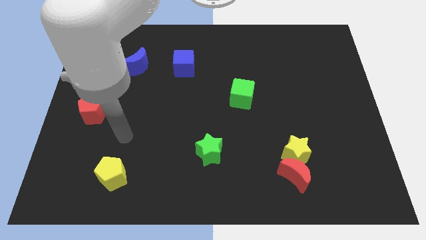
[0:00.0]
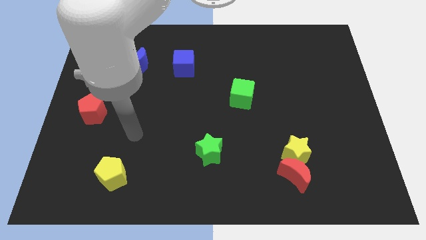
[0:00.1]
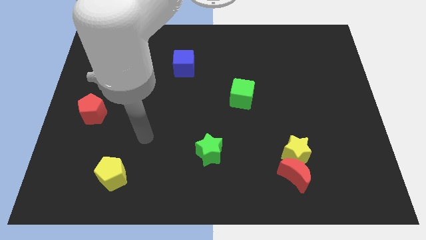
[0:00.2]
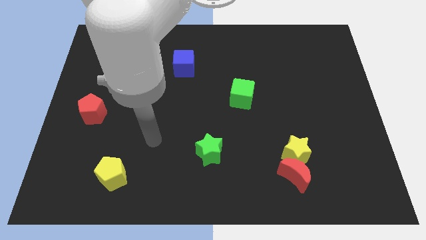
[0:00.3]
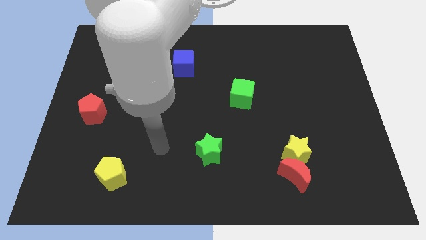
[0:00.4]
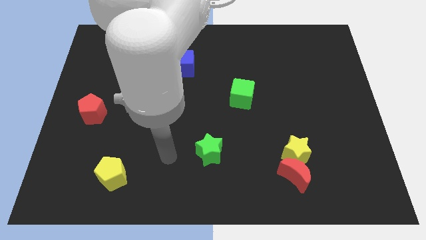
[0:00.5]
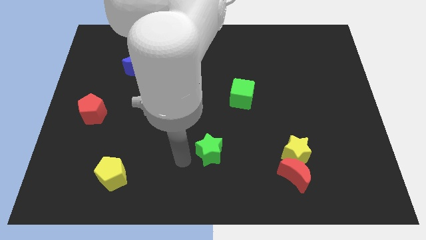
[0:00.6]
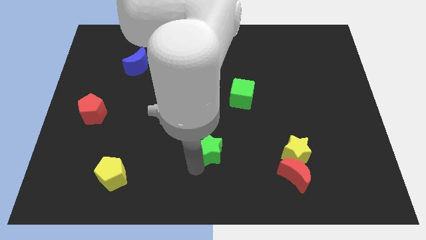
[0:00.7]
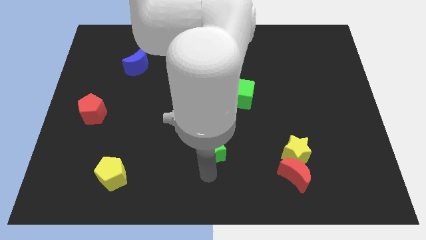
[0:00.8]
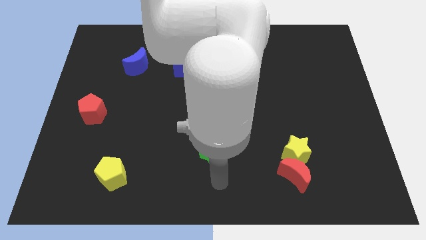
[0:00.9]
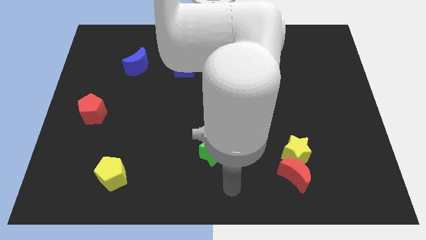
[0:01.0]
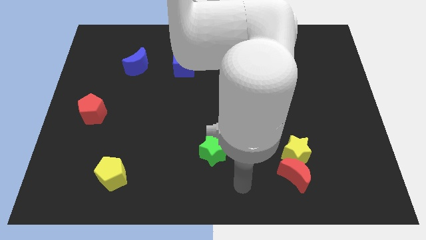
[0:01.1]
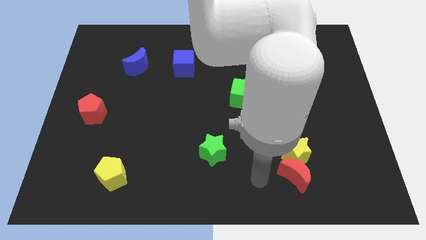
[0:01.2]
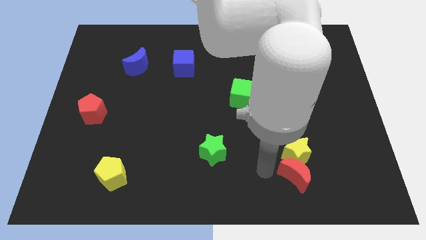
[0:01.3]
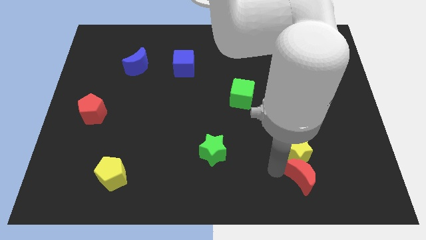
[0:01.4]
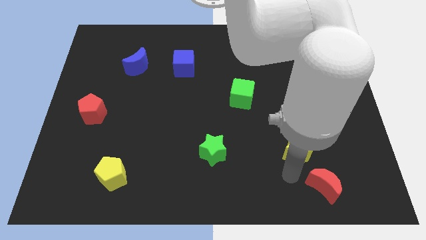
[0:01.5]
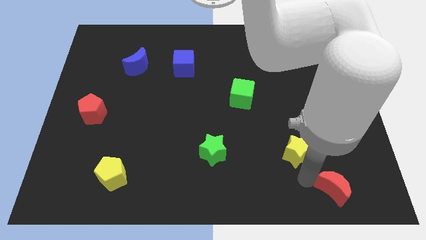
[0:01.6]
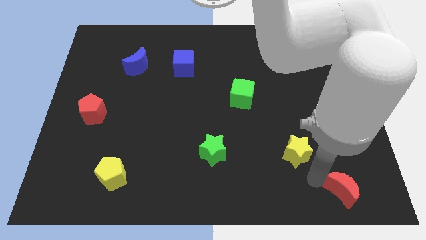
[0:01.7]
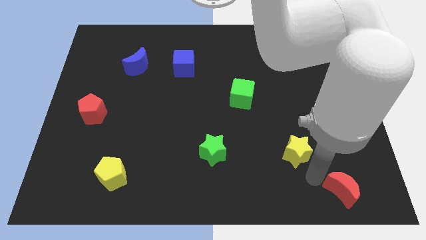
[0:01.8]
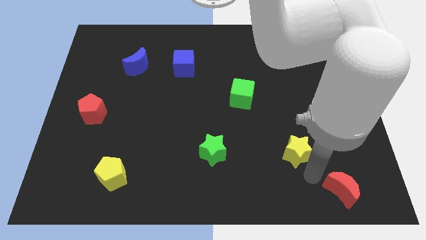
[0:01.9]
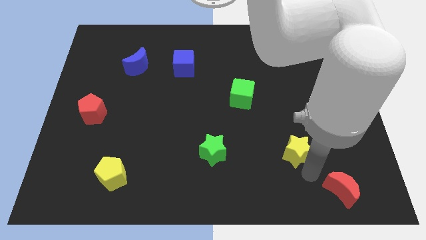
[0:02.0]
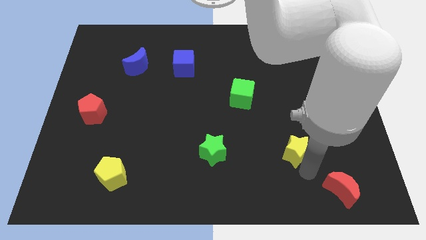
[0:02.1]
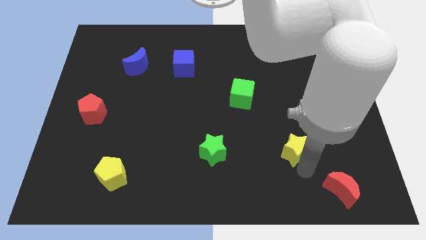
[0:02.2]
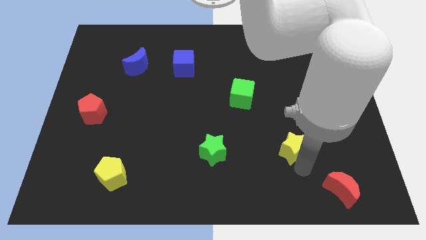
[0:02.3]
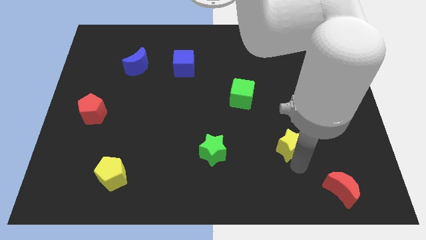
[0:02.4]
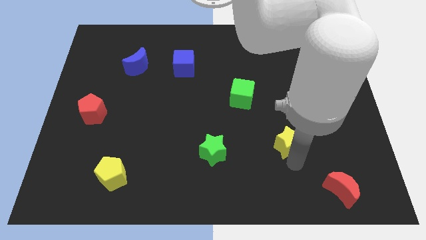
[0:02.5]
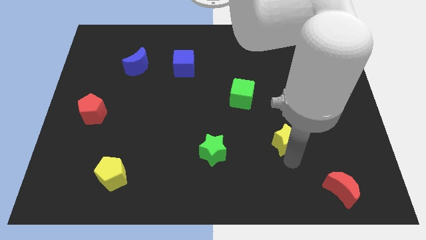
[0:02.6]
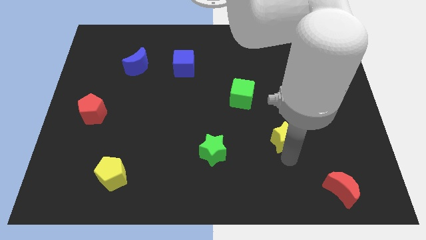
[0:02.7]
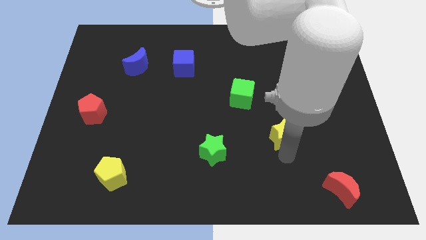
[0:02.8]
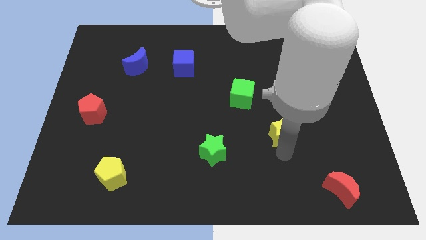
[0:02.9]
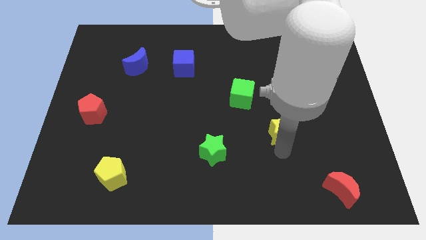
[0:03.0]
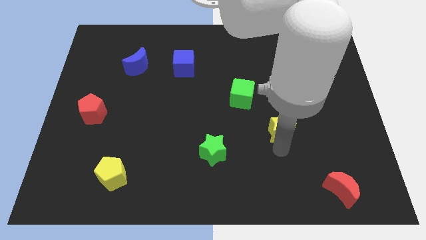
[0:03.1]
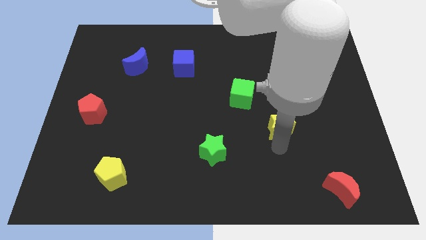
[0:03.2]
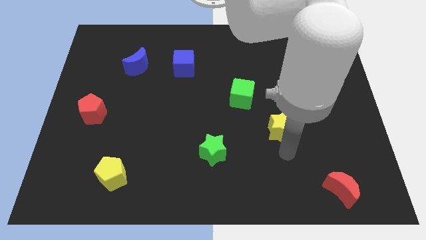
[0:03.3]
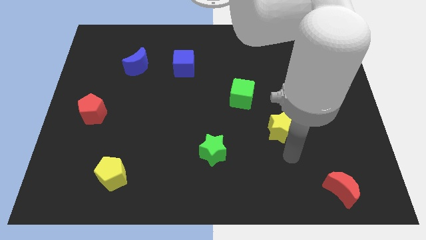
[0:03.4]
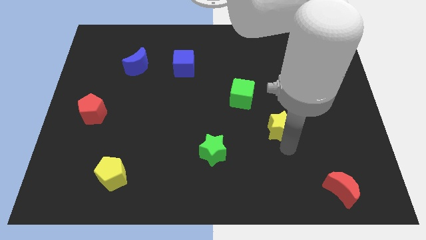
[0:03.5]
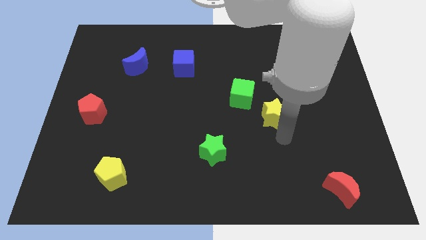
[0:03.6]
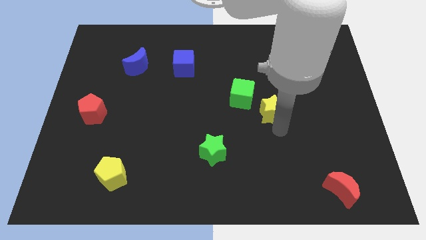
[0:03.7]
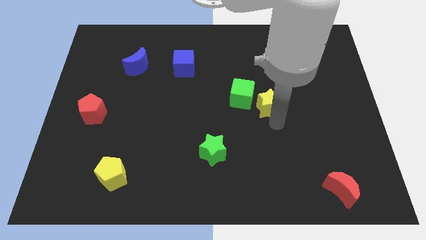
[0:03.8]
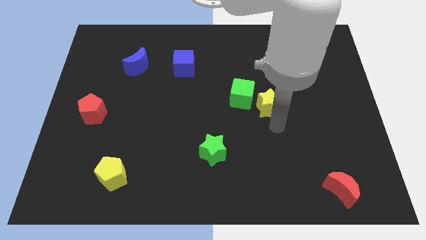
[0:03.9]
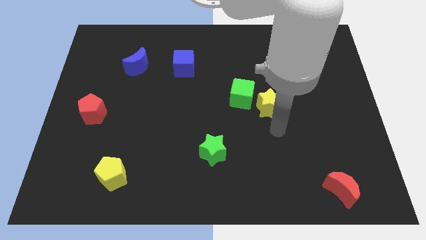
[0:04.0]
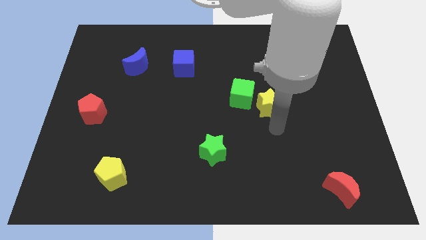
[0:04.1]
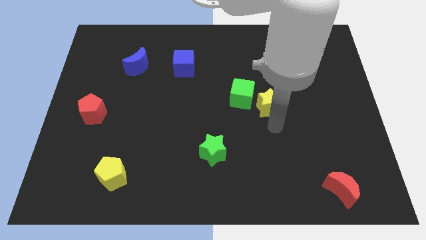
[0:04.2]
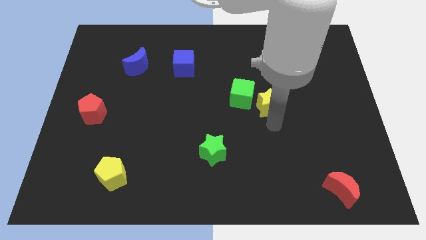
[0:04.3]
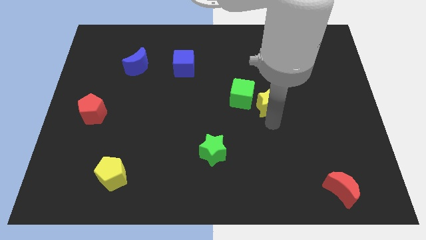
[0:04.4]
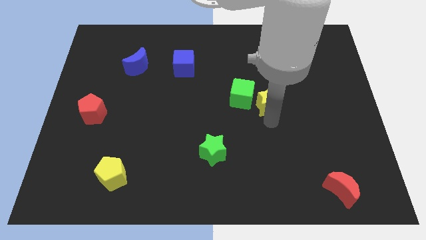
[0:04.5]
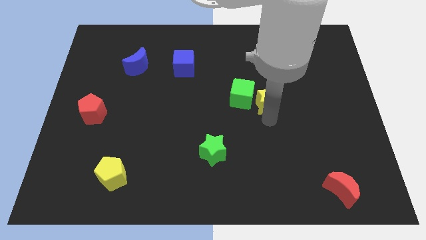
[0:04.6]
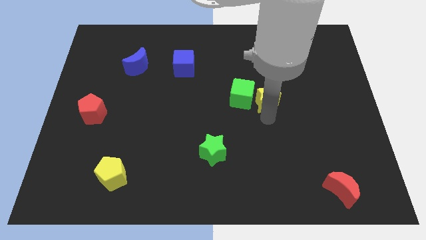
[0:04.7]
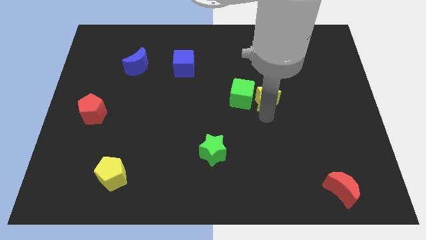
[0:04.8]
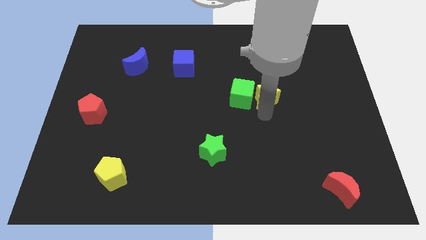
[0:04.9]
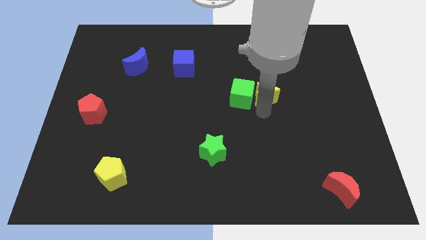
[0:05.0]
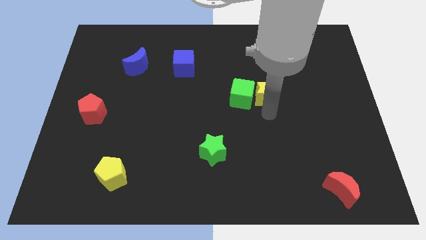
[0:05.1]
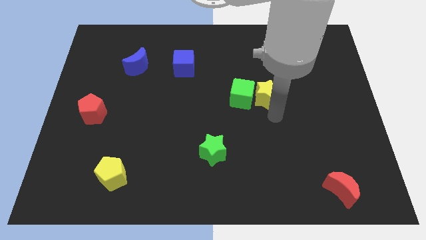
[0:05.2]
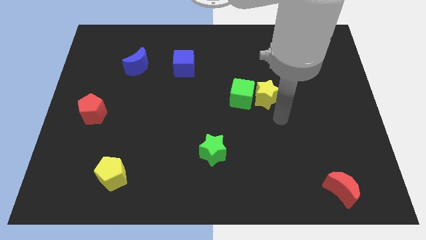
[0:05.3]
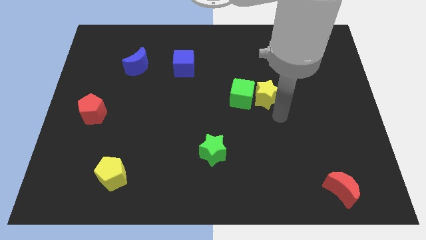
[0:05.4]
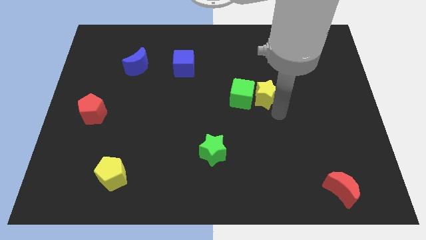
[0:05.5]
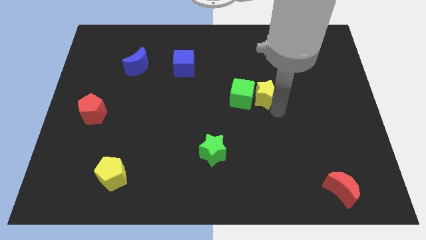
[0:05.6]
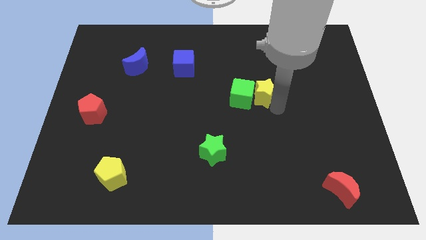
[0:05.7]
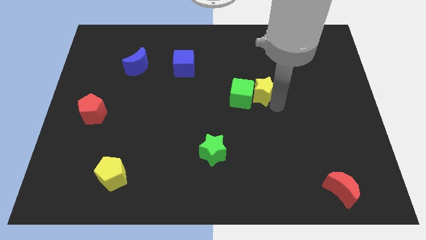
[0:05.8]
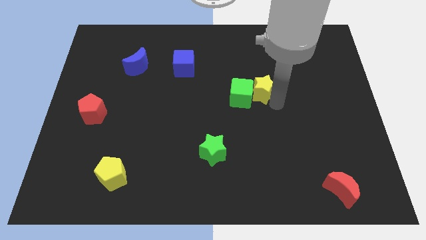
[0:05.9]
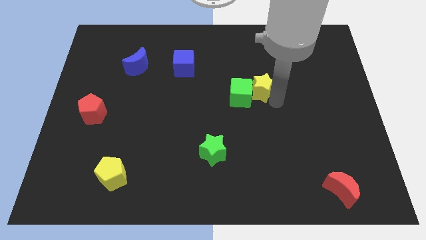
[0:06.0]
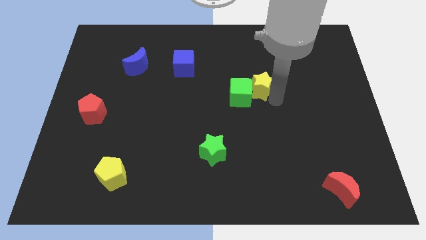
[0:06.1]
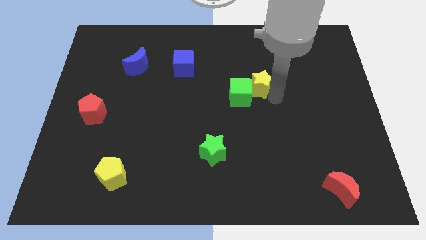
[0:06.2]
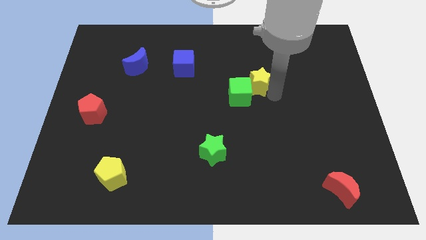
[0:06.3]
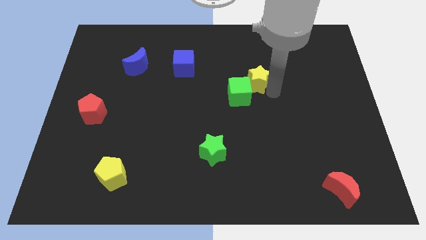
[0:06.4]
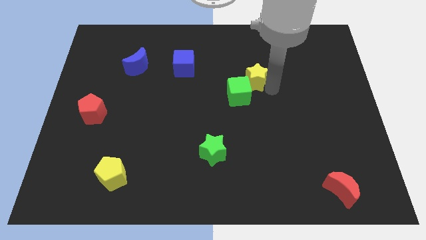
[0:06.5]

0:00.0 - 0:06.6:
move the yellow star above the green cube

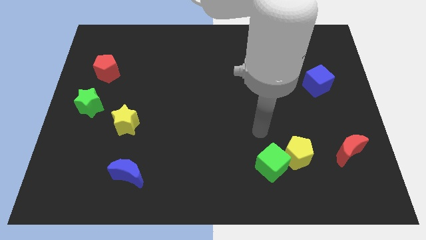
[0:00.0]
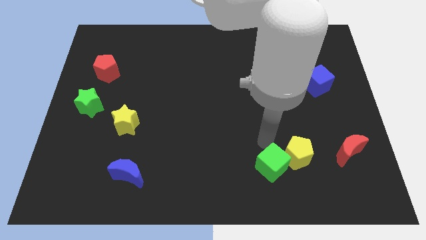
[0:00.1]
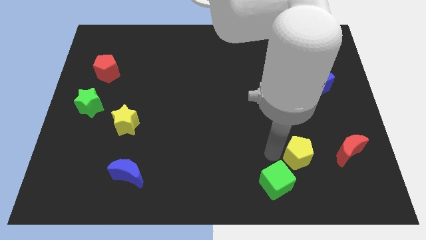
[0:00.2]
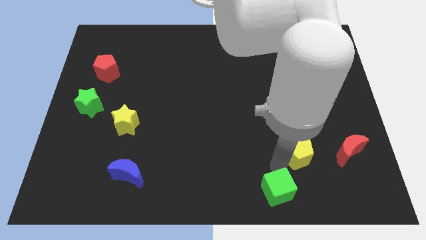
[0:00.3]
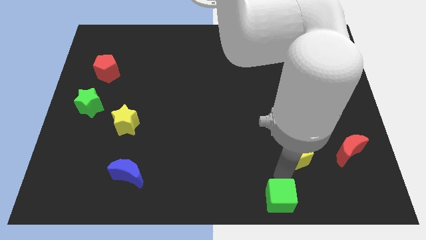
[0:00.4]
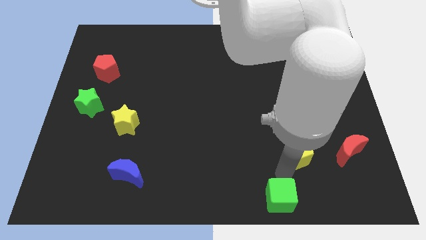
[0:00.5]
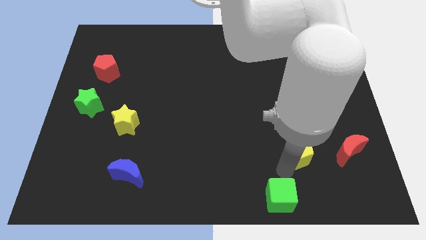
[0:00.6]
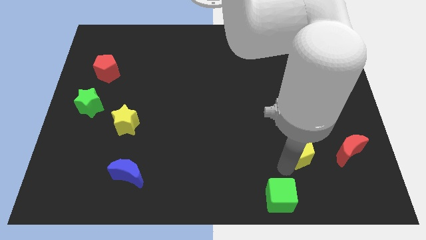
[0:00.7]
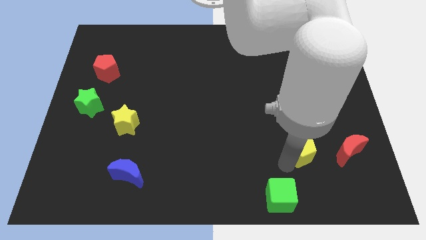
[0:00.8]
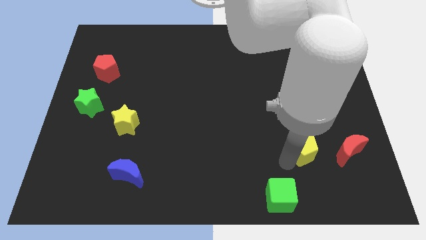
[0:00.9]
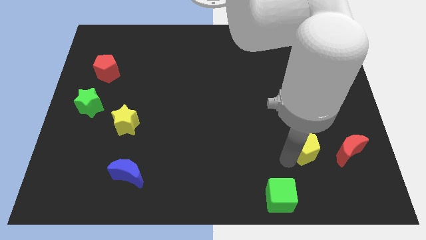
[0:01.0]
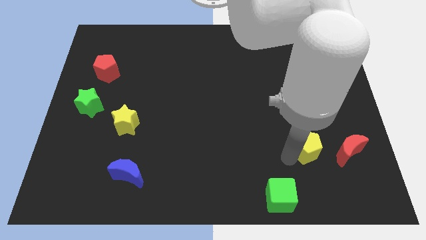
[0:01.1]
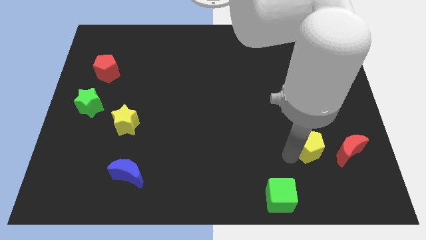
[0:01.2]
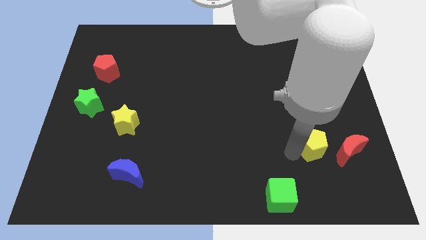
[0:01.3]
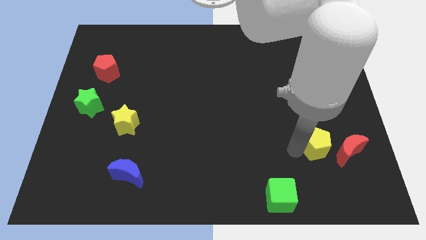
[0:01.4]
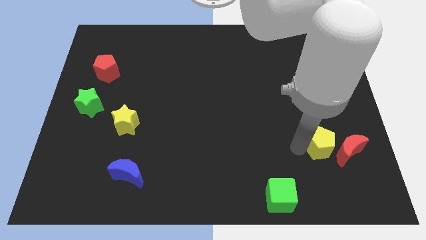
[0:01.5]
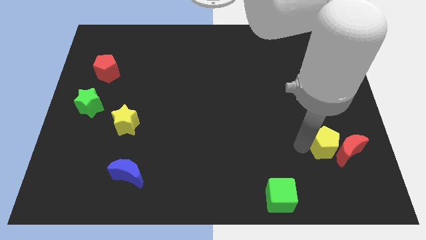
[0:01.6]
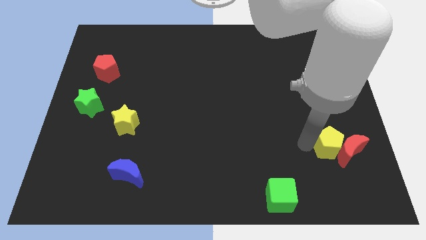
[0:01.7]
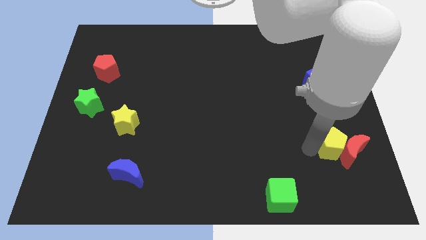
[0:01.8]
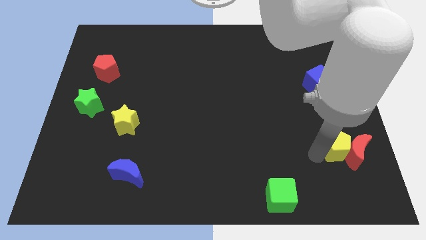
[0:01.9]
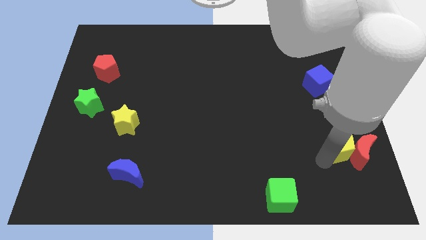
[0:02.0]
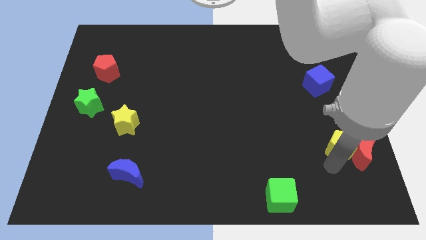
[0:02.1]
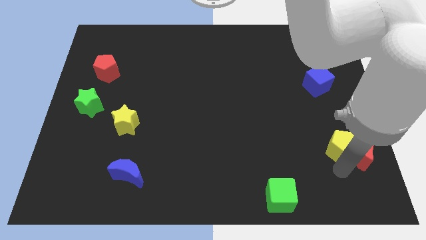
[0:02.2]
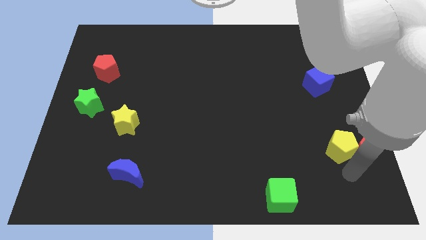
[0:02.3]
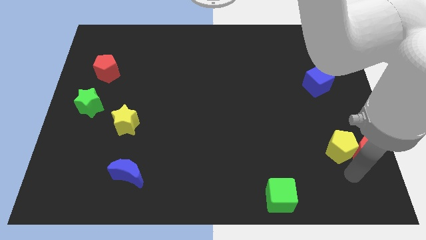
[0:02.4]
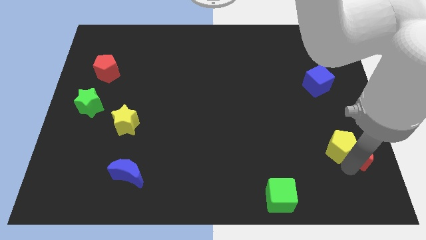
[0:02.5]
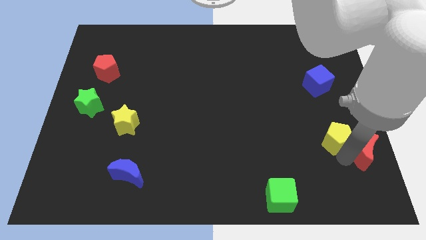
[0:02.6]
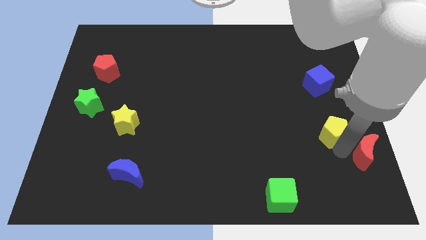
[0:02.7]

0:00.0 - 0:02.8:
put the yellow pentagon to the bottom side of the blue cube
